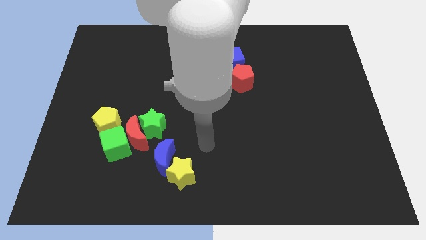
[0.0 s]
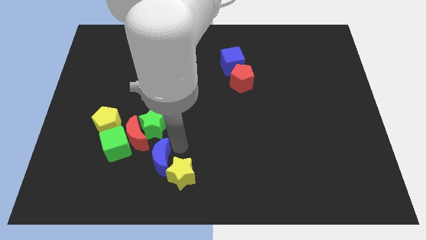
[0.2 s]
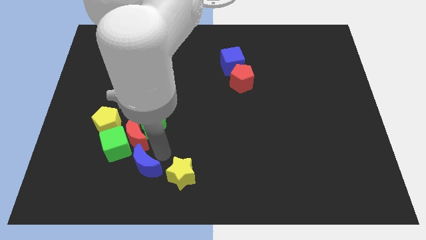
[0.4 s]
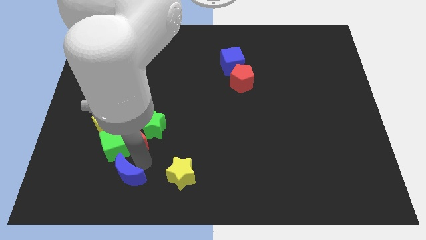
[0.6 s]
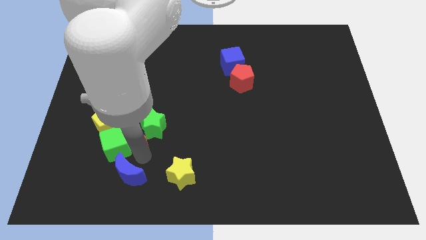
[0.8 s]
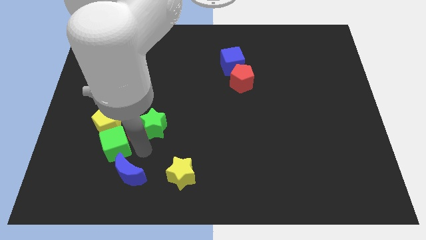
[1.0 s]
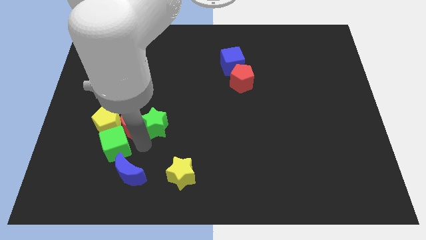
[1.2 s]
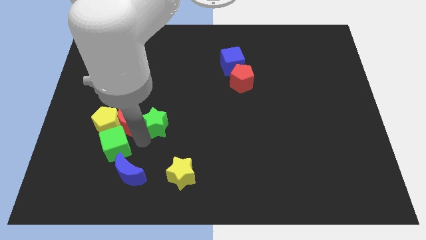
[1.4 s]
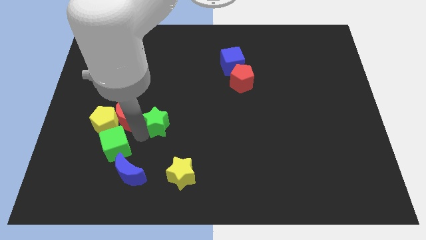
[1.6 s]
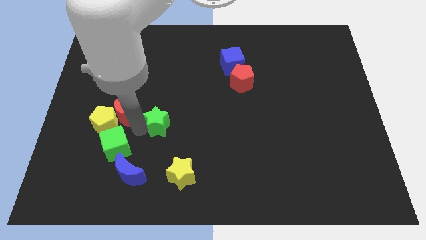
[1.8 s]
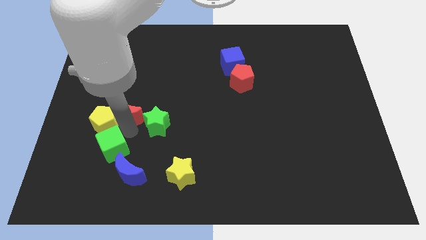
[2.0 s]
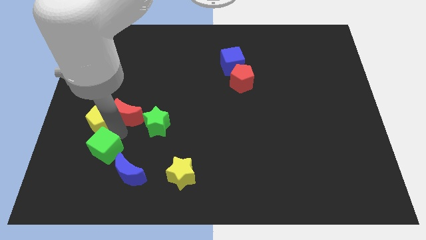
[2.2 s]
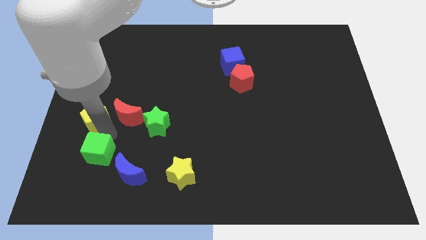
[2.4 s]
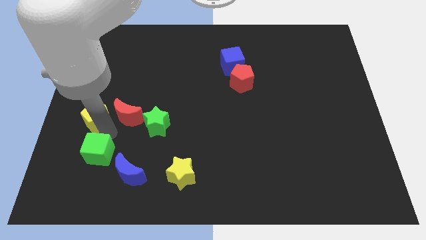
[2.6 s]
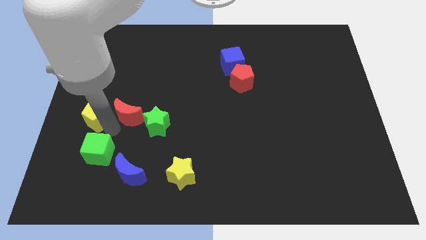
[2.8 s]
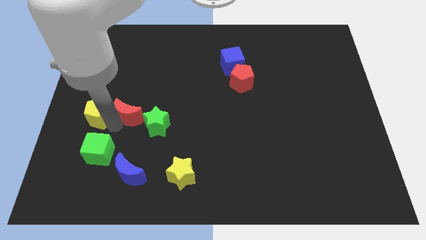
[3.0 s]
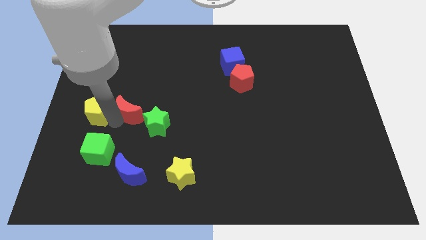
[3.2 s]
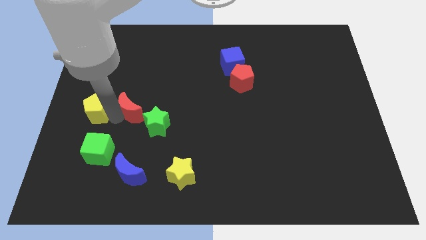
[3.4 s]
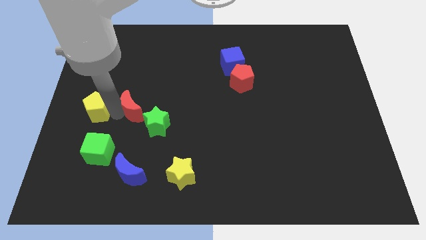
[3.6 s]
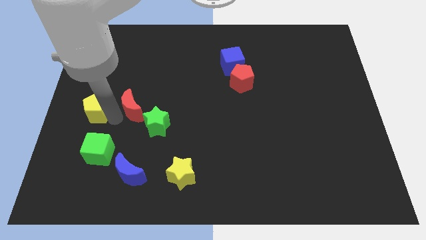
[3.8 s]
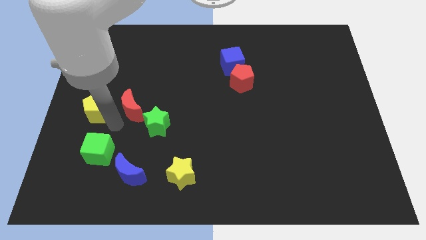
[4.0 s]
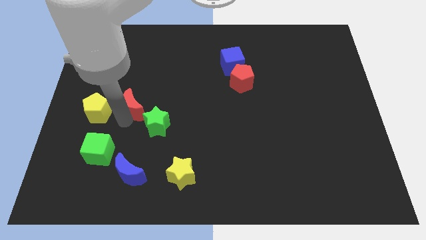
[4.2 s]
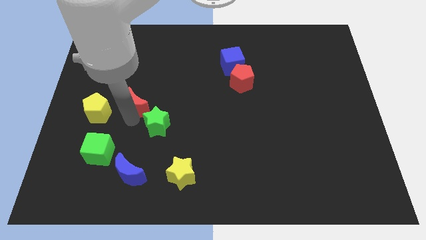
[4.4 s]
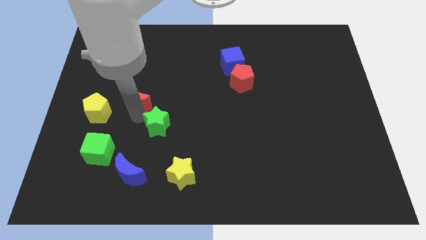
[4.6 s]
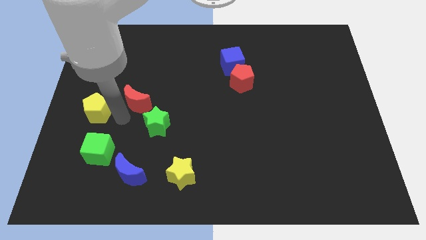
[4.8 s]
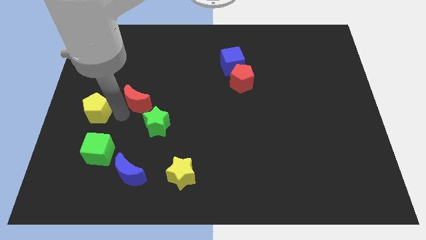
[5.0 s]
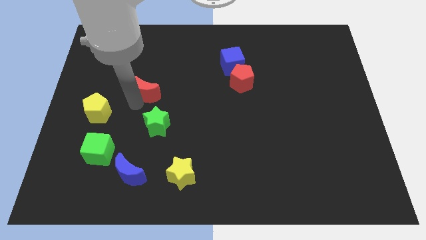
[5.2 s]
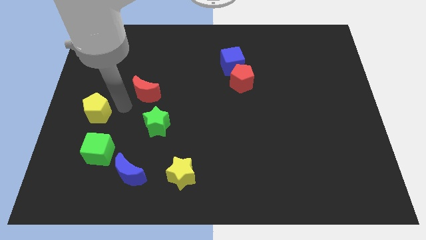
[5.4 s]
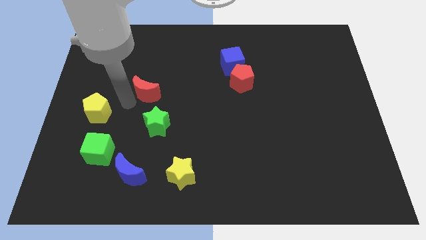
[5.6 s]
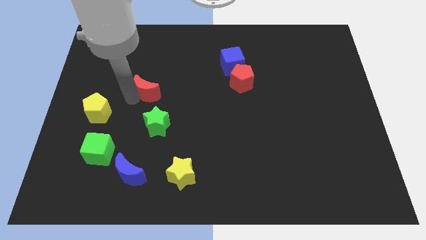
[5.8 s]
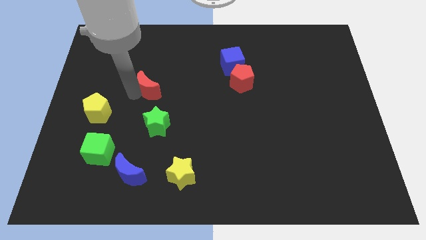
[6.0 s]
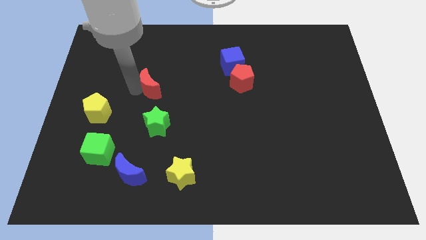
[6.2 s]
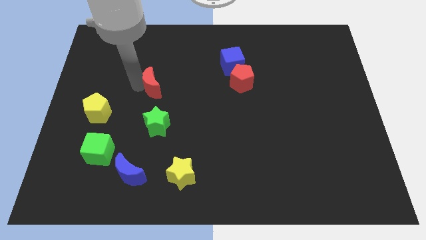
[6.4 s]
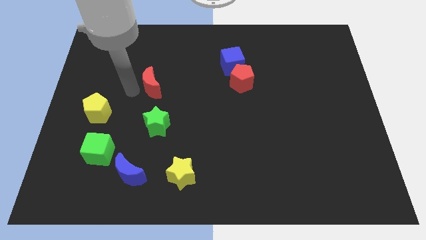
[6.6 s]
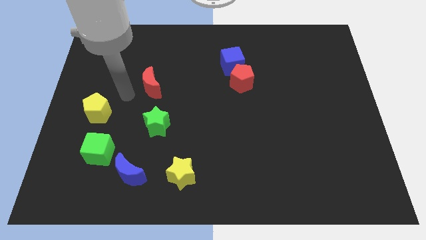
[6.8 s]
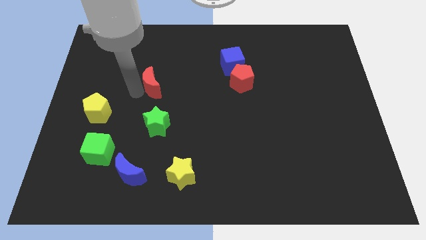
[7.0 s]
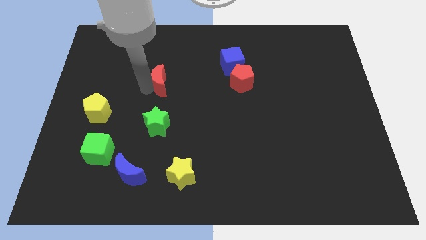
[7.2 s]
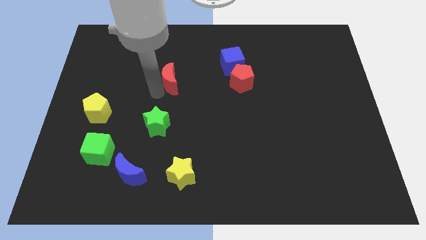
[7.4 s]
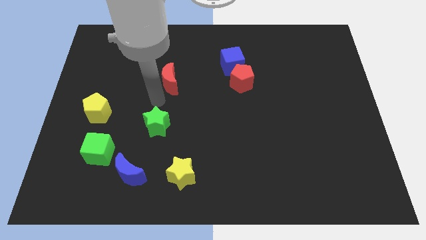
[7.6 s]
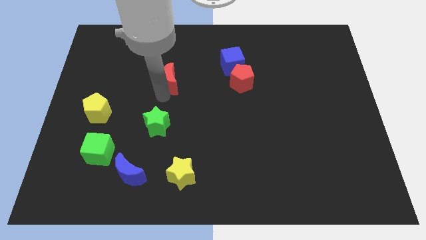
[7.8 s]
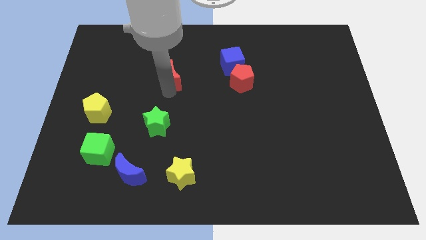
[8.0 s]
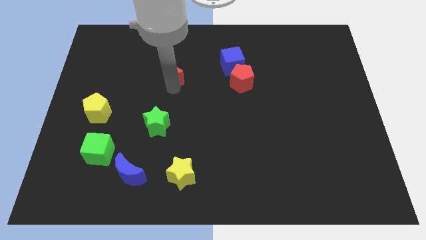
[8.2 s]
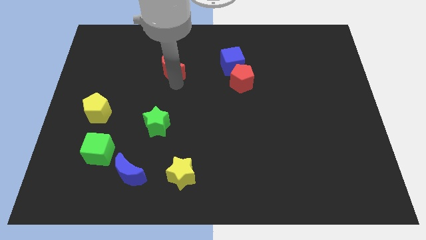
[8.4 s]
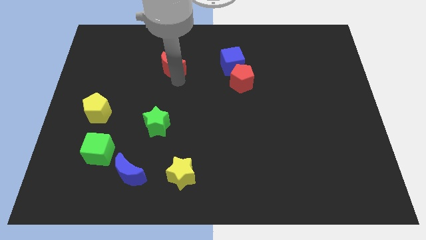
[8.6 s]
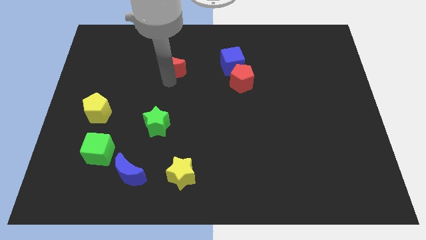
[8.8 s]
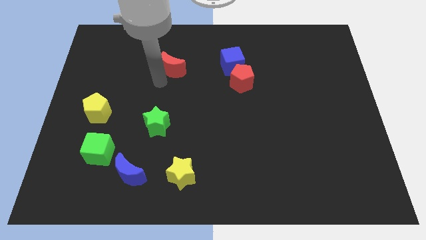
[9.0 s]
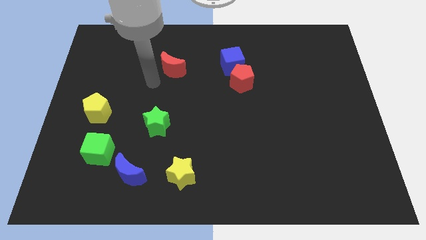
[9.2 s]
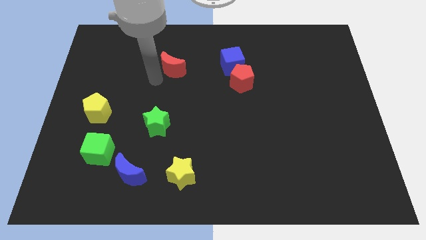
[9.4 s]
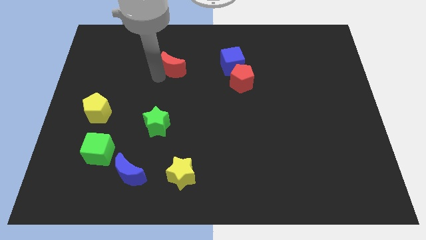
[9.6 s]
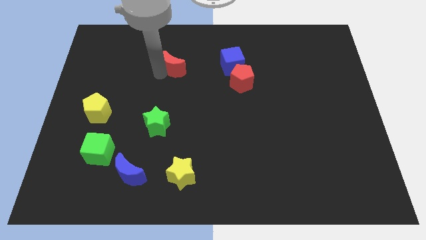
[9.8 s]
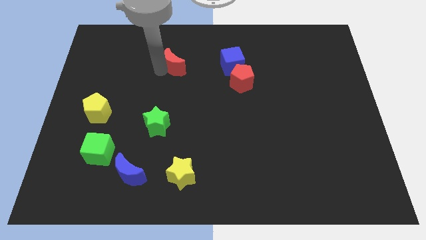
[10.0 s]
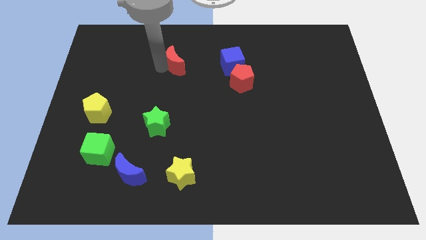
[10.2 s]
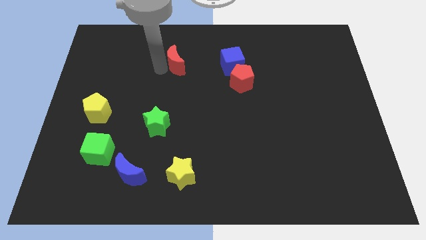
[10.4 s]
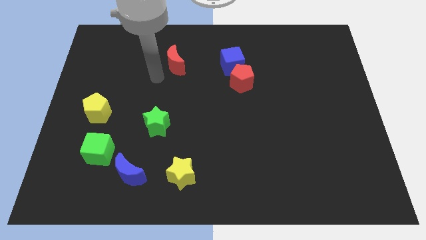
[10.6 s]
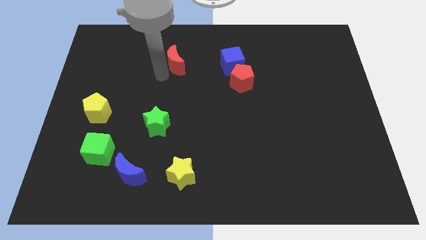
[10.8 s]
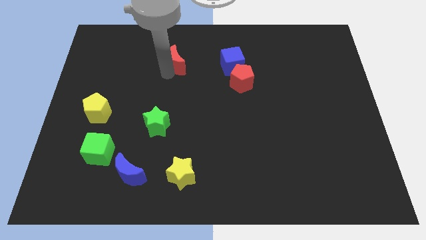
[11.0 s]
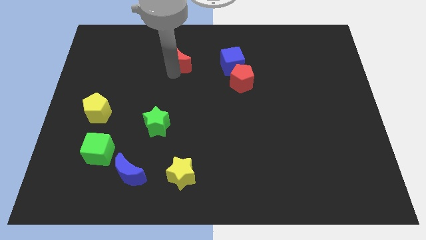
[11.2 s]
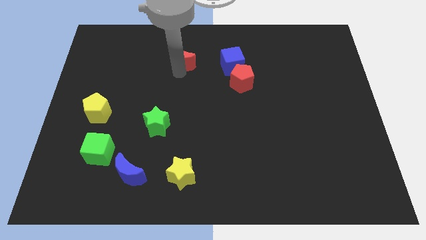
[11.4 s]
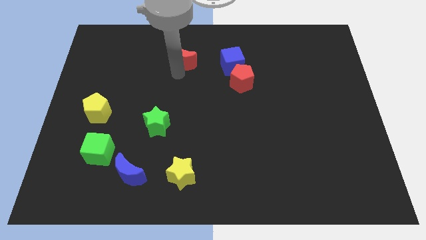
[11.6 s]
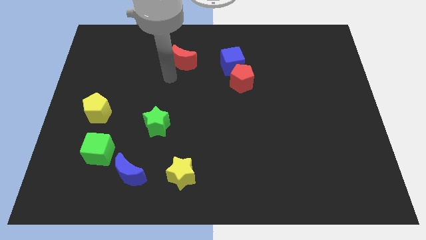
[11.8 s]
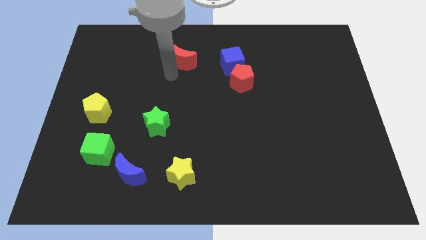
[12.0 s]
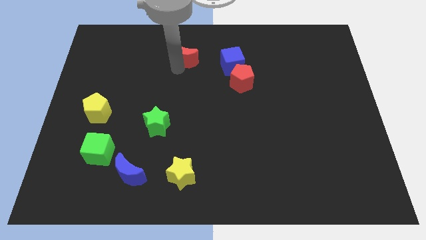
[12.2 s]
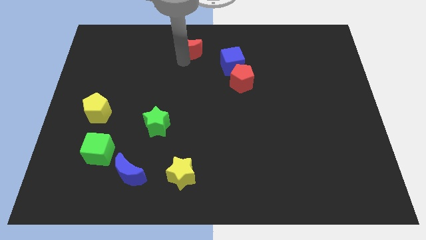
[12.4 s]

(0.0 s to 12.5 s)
slide the red moon to the top
